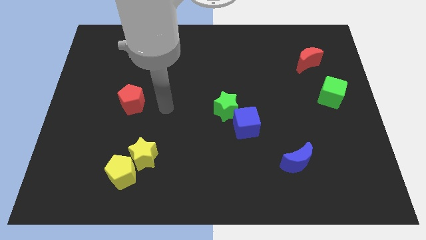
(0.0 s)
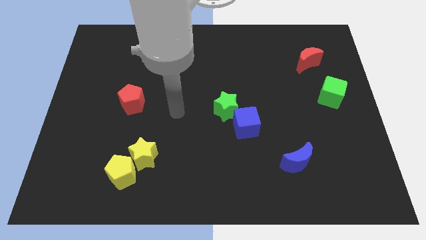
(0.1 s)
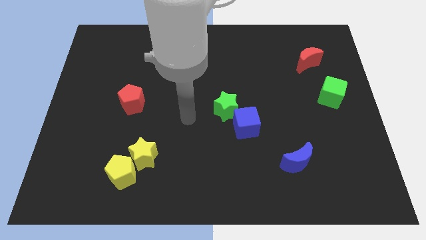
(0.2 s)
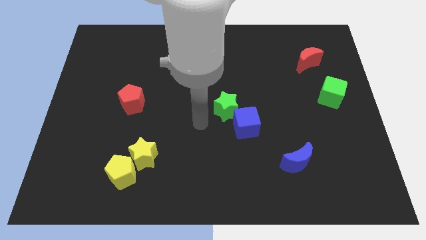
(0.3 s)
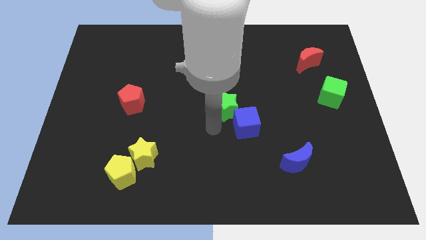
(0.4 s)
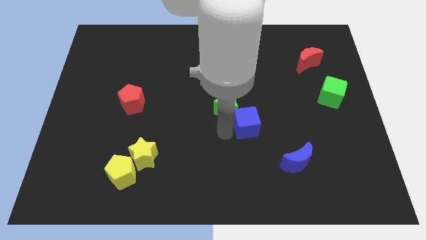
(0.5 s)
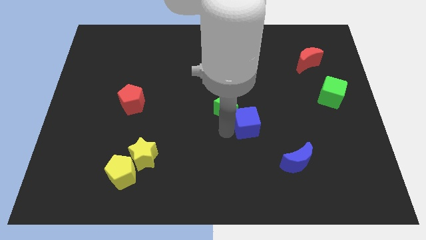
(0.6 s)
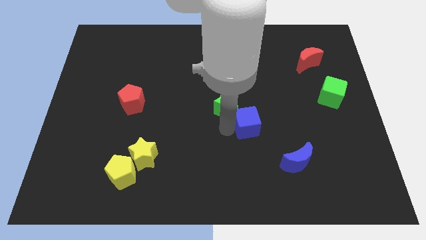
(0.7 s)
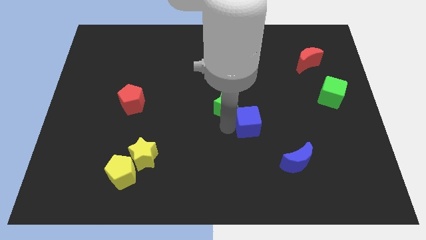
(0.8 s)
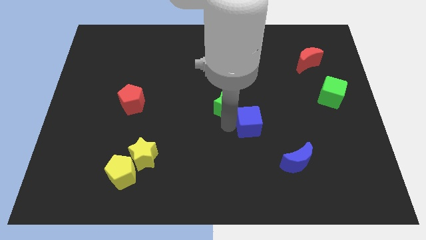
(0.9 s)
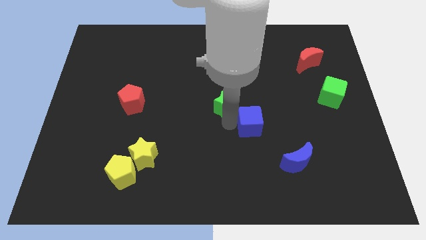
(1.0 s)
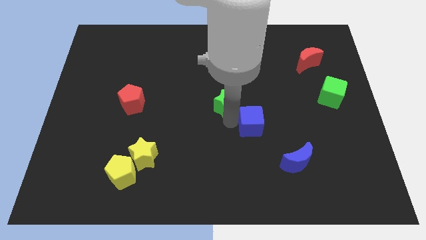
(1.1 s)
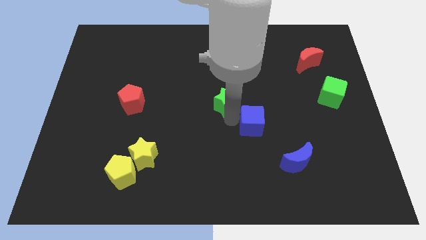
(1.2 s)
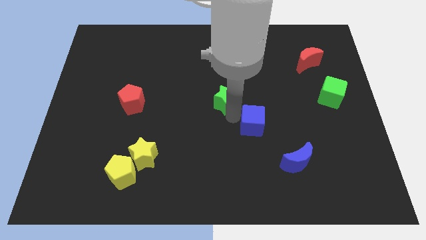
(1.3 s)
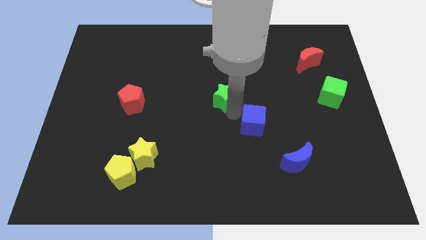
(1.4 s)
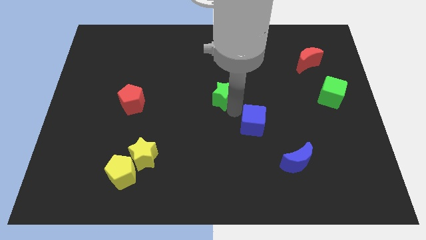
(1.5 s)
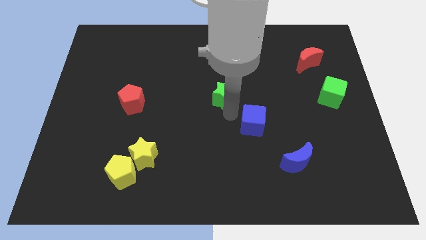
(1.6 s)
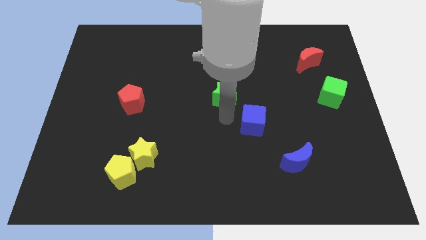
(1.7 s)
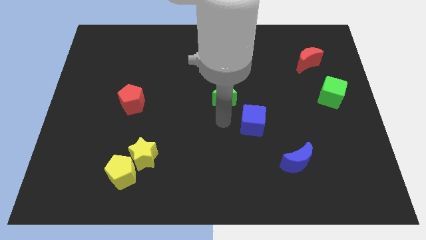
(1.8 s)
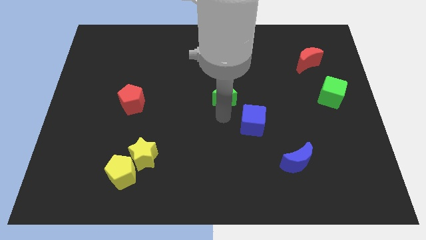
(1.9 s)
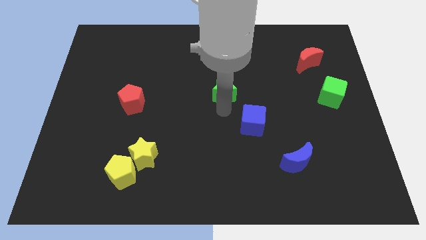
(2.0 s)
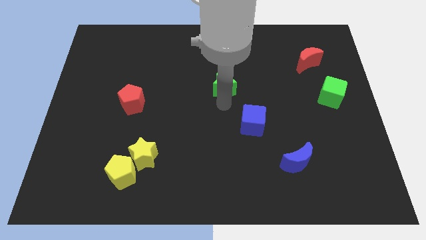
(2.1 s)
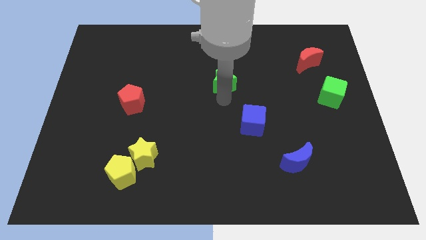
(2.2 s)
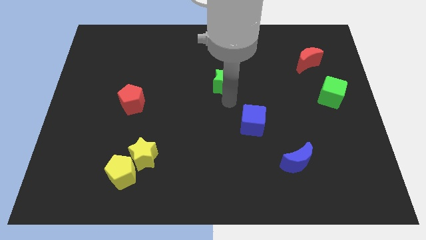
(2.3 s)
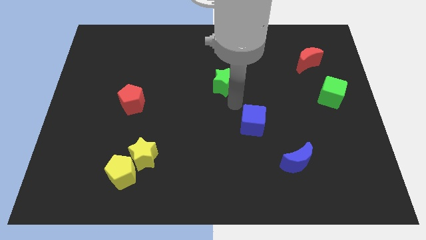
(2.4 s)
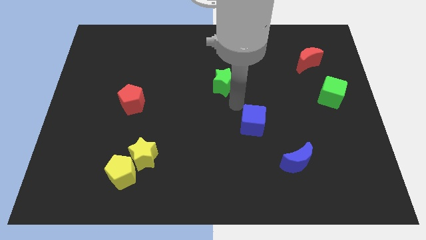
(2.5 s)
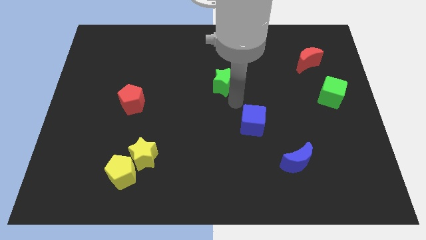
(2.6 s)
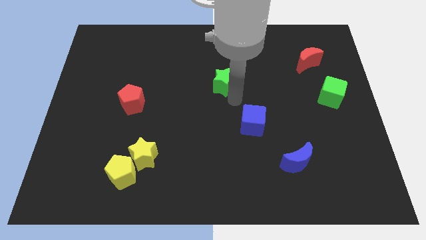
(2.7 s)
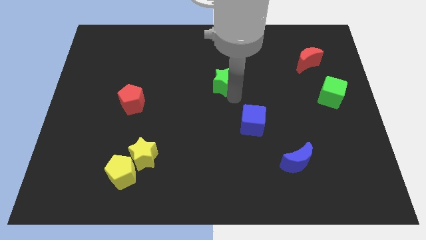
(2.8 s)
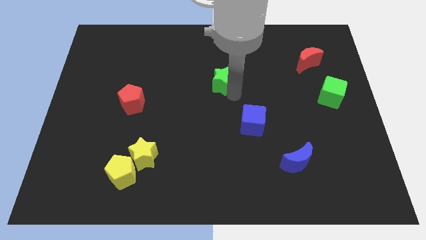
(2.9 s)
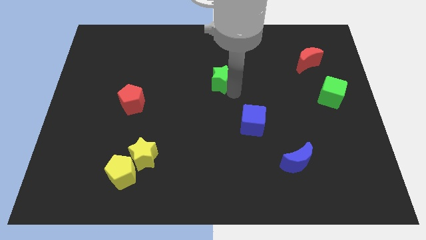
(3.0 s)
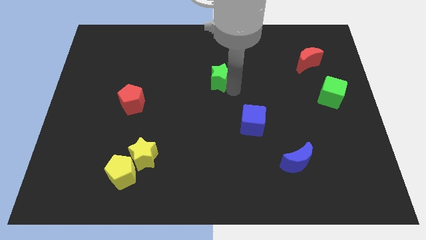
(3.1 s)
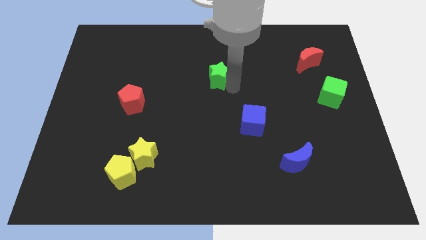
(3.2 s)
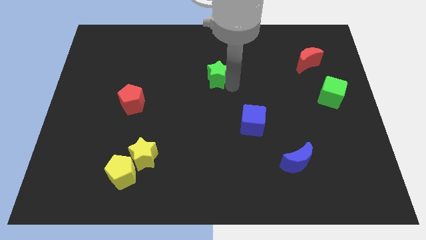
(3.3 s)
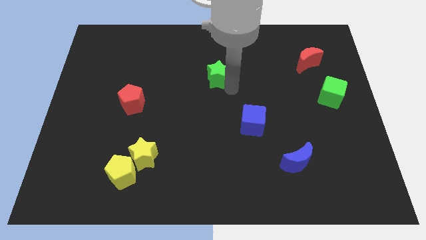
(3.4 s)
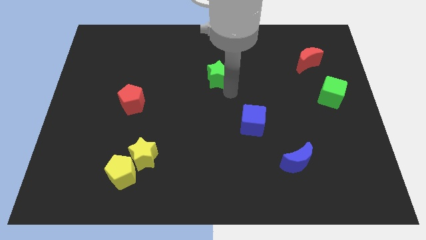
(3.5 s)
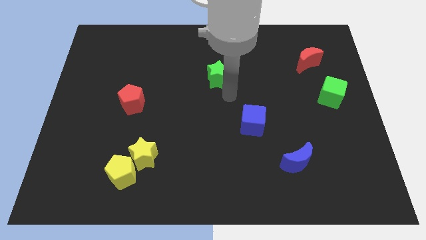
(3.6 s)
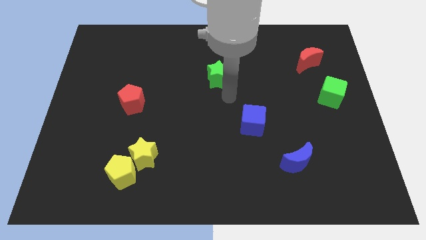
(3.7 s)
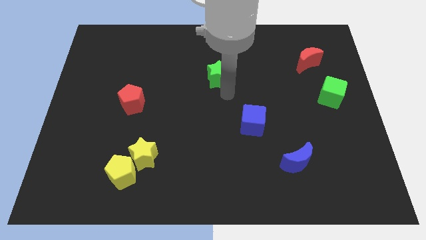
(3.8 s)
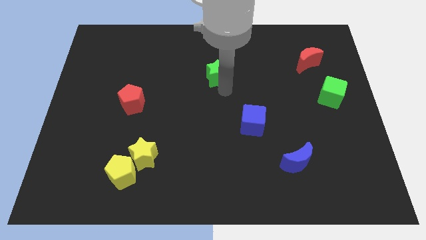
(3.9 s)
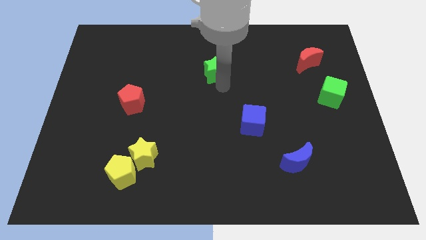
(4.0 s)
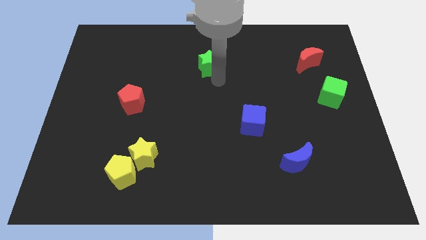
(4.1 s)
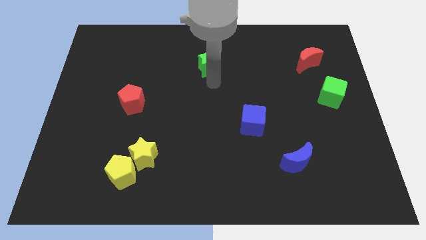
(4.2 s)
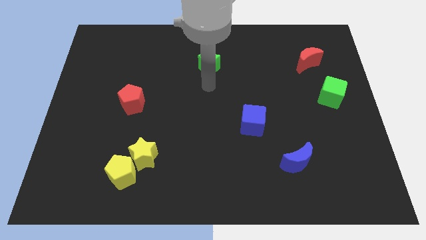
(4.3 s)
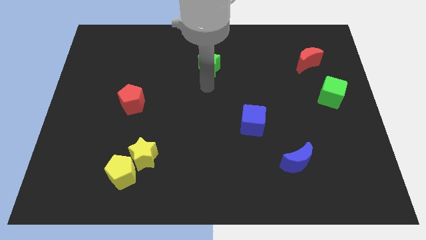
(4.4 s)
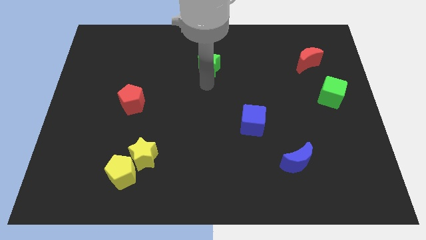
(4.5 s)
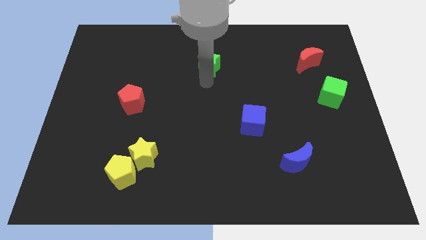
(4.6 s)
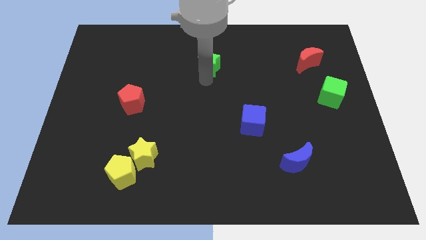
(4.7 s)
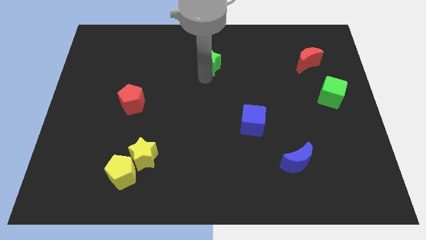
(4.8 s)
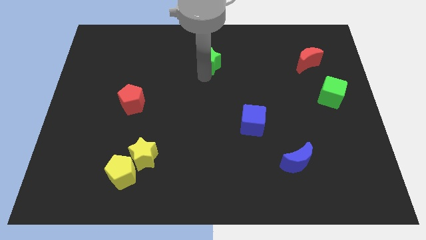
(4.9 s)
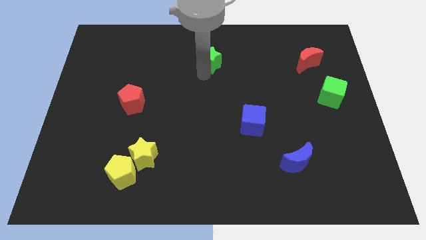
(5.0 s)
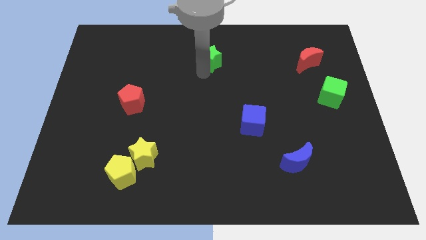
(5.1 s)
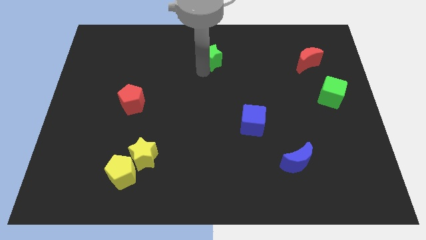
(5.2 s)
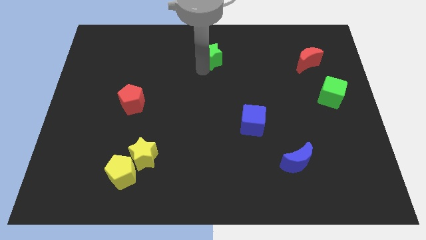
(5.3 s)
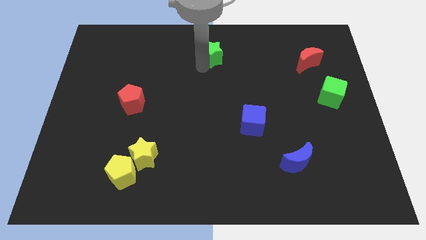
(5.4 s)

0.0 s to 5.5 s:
put the green star to the top side

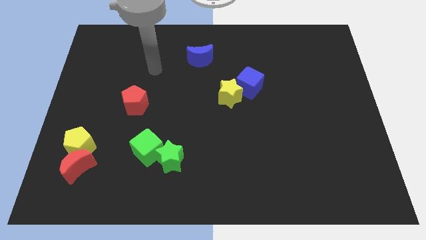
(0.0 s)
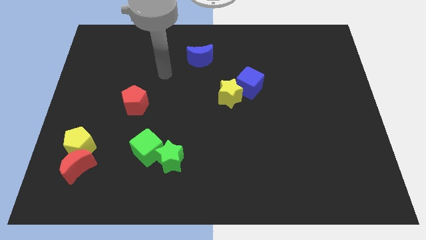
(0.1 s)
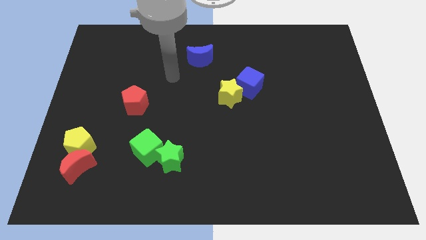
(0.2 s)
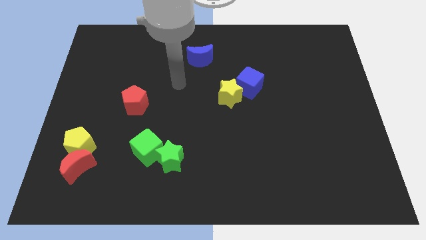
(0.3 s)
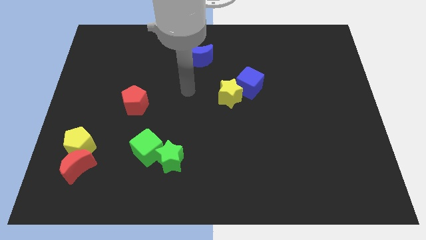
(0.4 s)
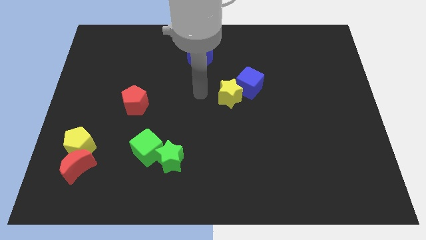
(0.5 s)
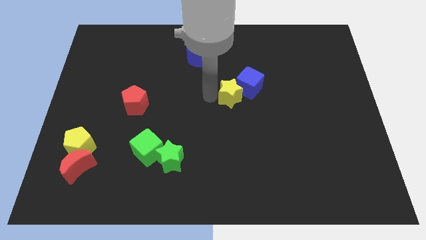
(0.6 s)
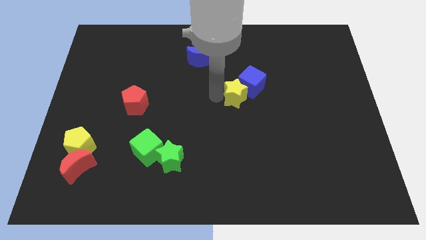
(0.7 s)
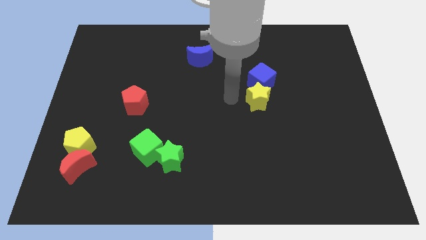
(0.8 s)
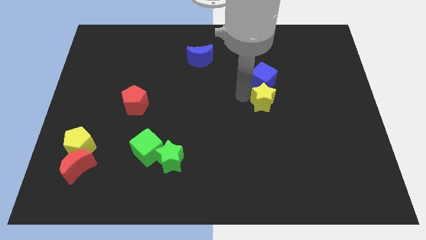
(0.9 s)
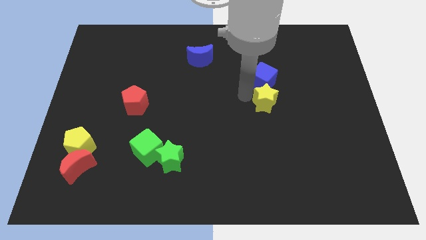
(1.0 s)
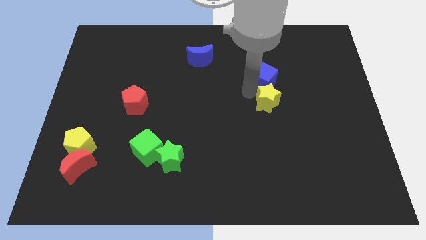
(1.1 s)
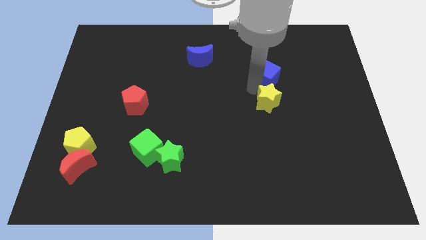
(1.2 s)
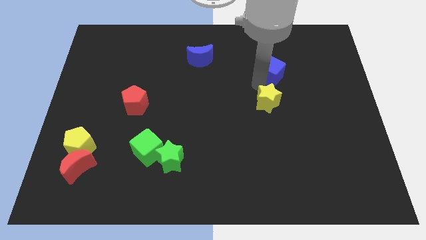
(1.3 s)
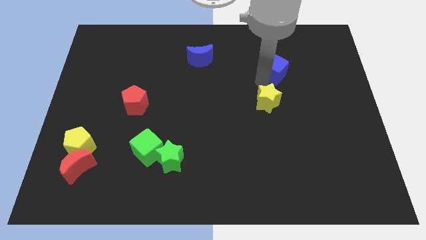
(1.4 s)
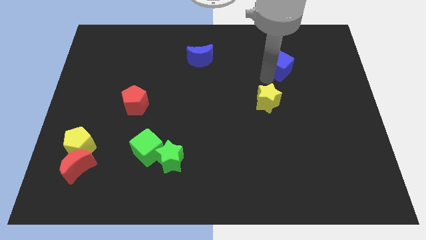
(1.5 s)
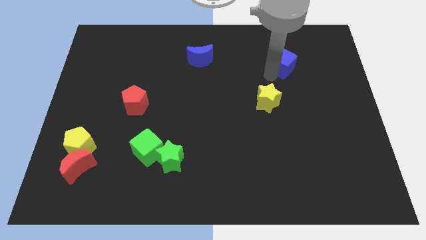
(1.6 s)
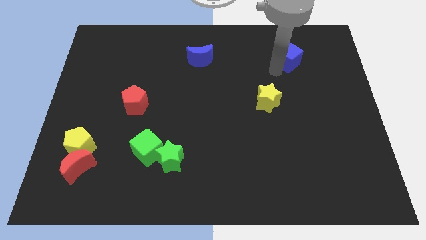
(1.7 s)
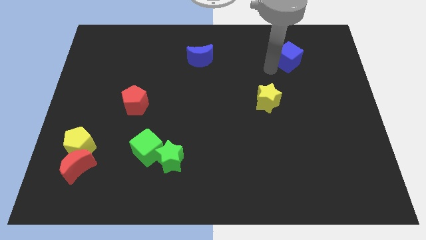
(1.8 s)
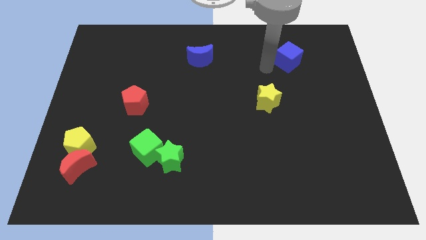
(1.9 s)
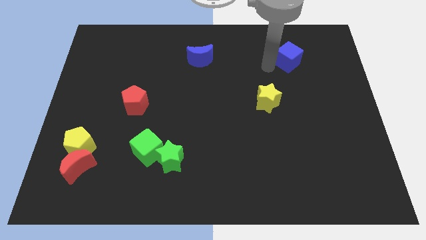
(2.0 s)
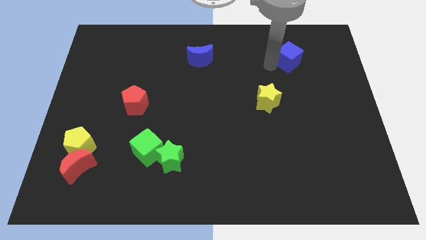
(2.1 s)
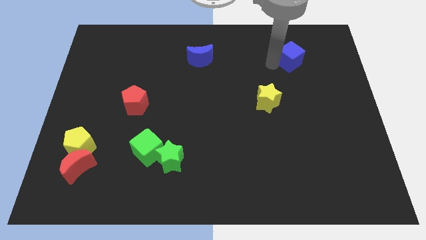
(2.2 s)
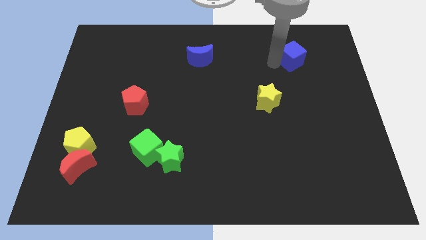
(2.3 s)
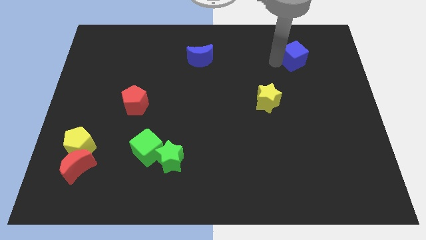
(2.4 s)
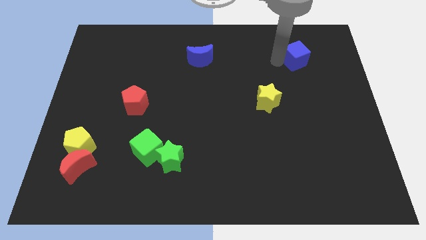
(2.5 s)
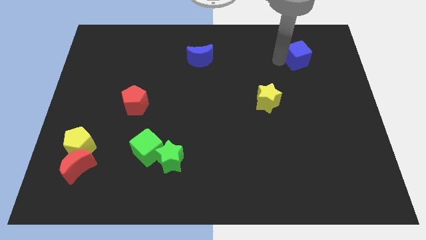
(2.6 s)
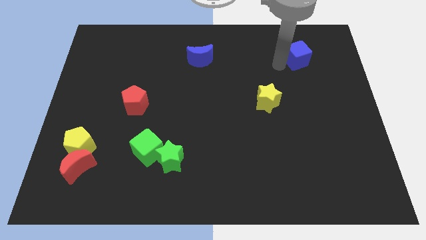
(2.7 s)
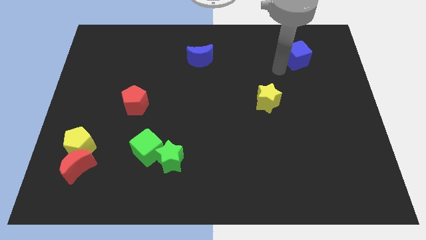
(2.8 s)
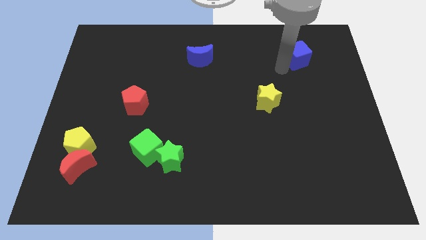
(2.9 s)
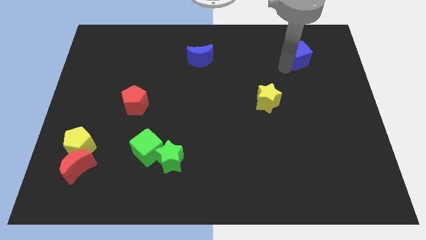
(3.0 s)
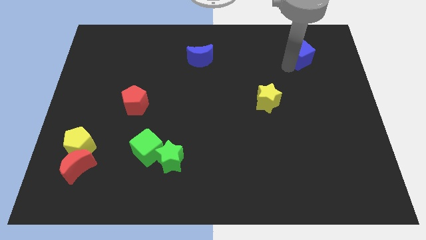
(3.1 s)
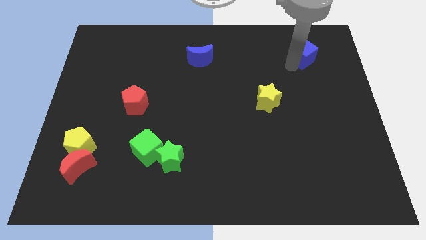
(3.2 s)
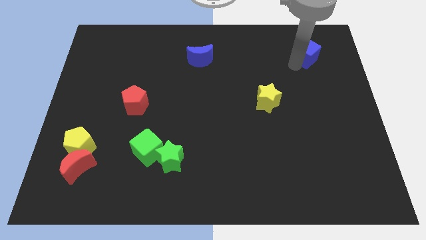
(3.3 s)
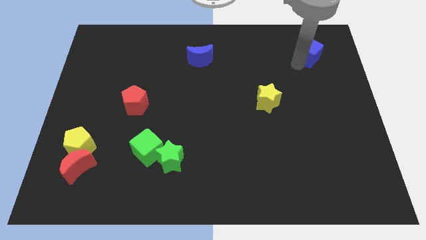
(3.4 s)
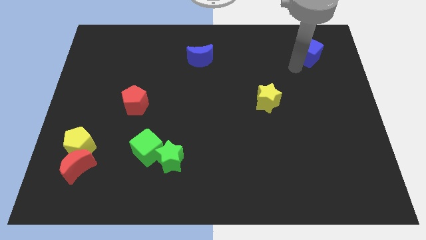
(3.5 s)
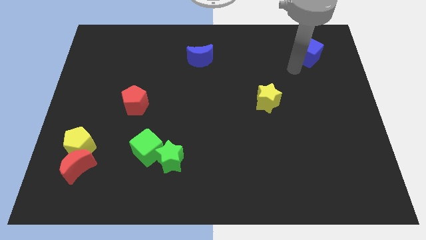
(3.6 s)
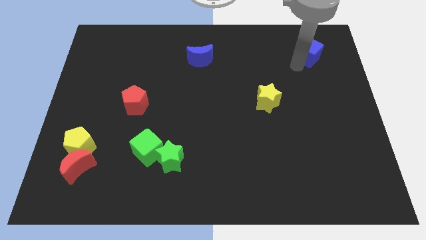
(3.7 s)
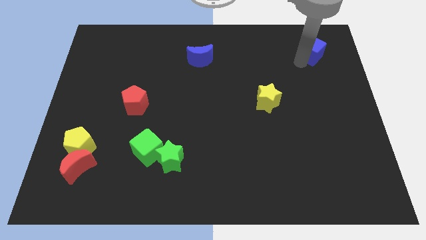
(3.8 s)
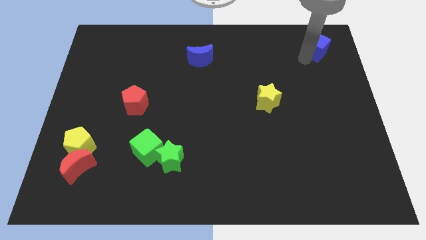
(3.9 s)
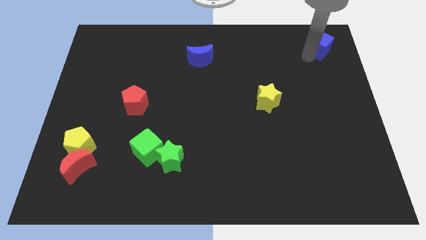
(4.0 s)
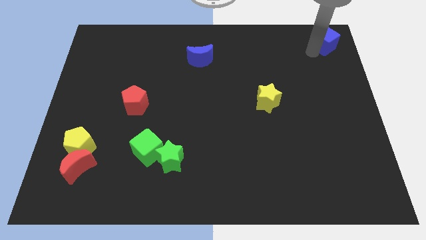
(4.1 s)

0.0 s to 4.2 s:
move the blue cube to the top right corner
